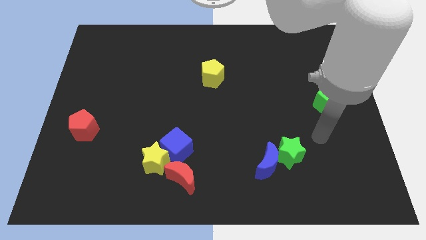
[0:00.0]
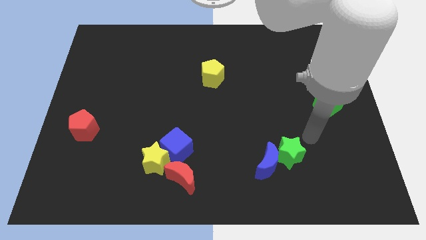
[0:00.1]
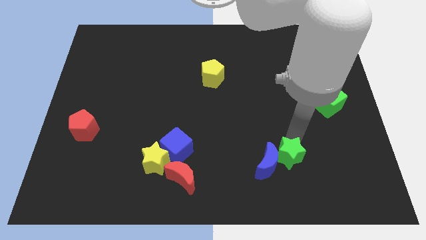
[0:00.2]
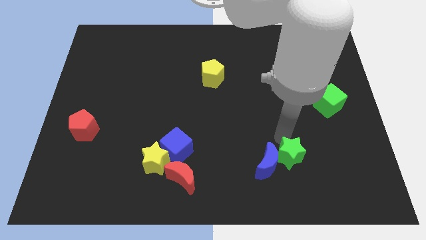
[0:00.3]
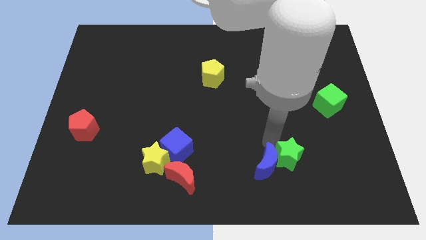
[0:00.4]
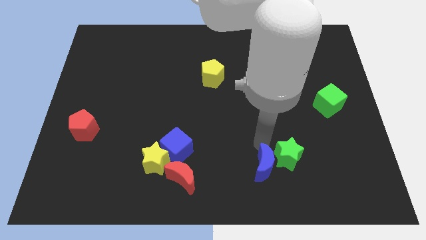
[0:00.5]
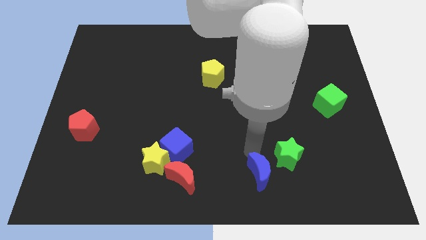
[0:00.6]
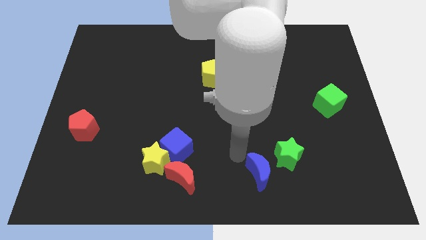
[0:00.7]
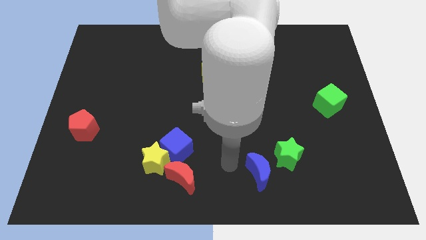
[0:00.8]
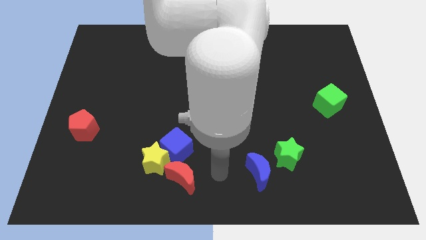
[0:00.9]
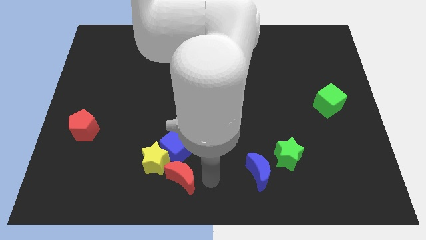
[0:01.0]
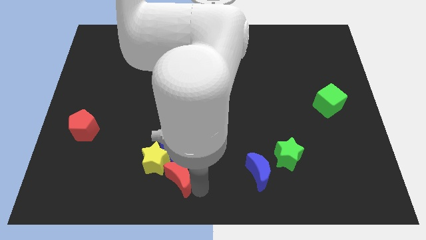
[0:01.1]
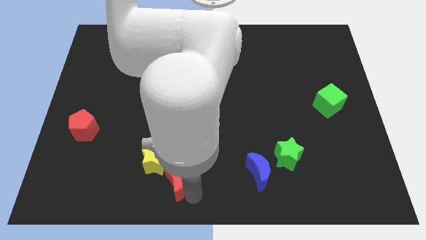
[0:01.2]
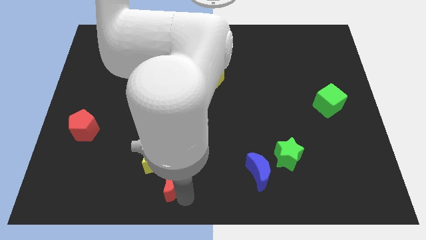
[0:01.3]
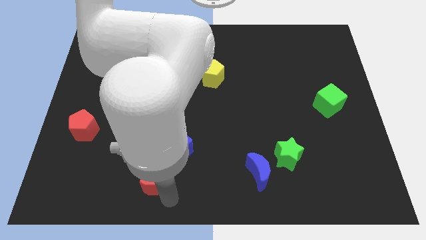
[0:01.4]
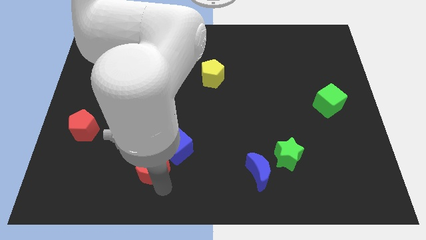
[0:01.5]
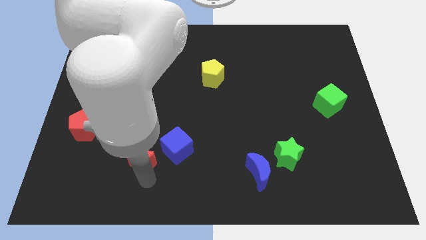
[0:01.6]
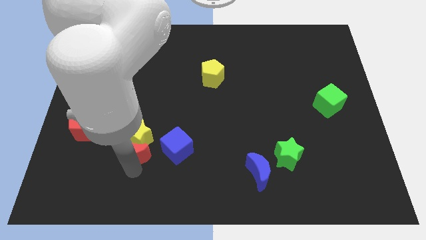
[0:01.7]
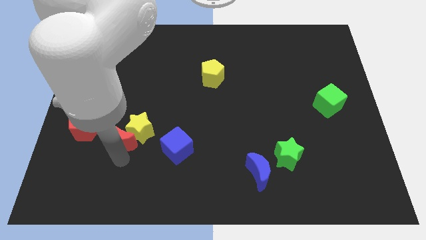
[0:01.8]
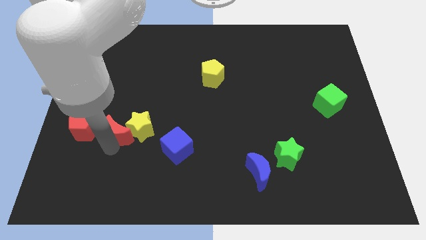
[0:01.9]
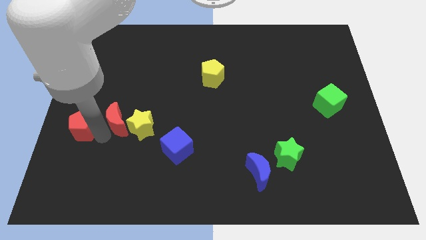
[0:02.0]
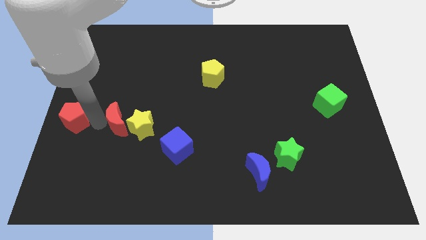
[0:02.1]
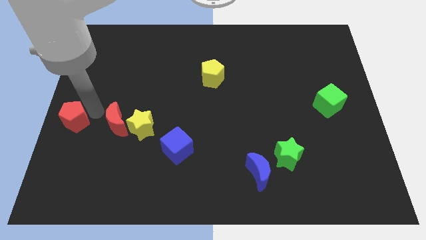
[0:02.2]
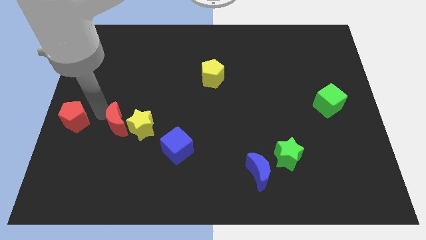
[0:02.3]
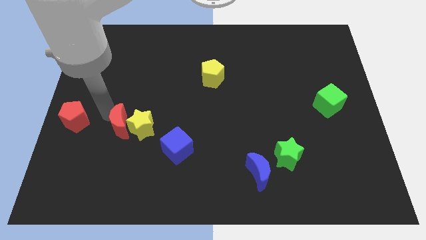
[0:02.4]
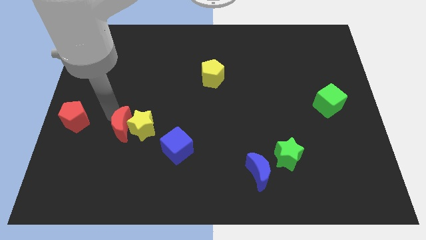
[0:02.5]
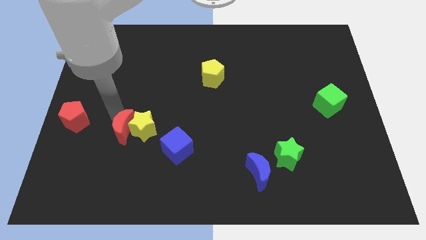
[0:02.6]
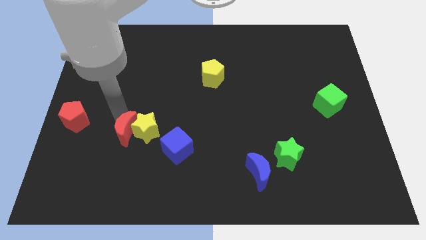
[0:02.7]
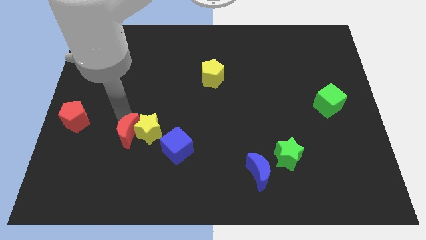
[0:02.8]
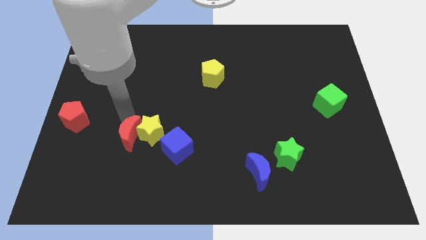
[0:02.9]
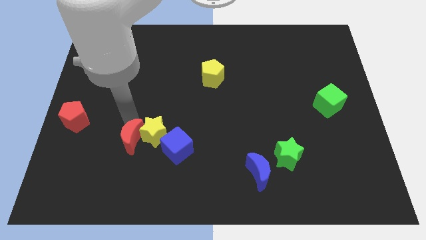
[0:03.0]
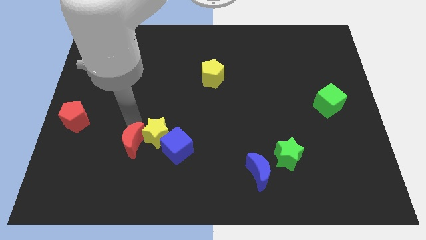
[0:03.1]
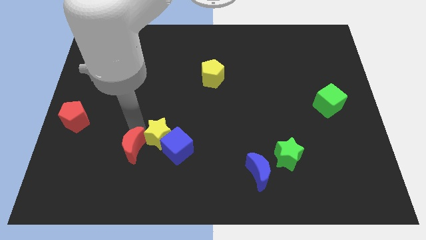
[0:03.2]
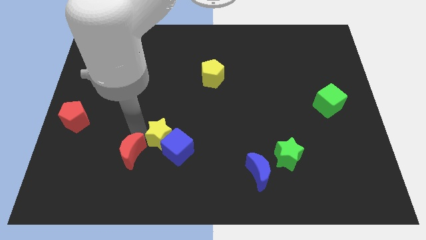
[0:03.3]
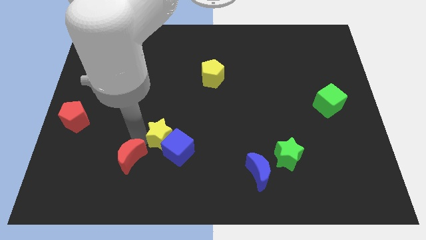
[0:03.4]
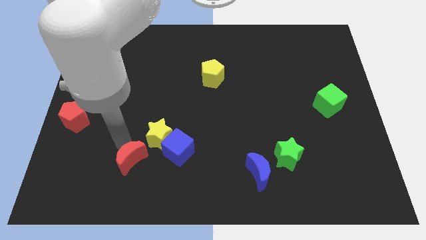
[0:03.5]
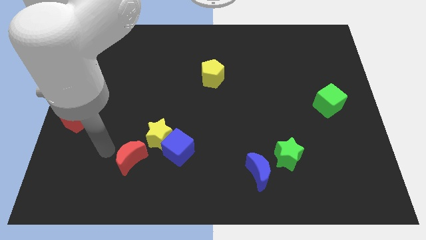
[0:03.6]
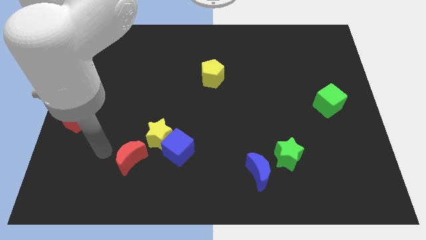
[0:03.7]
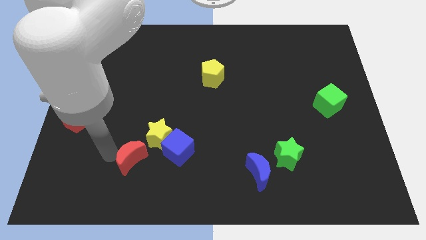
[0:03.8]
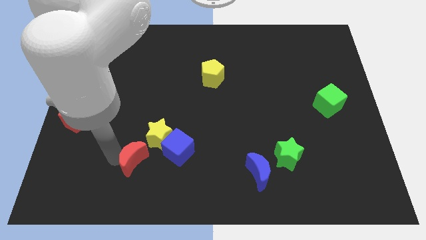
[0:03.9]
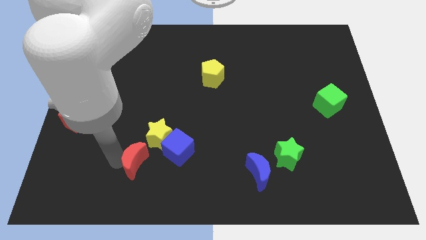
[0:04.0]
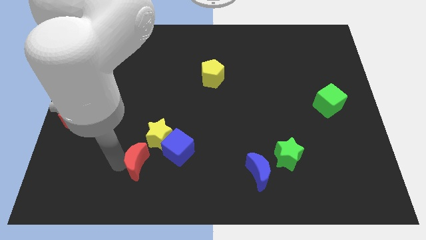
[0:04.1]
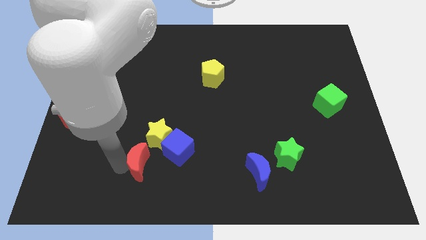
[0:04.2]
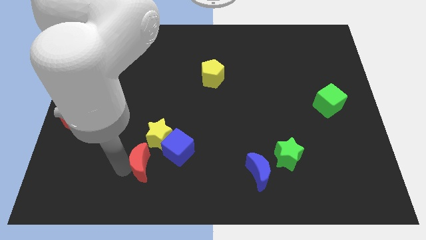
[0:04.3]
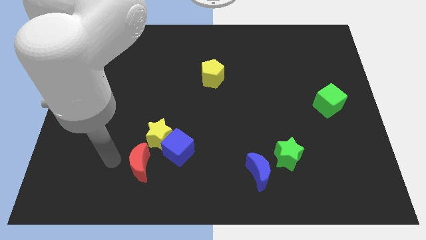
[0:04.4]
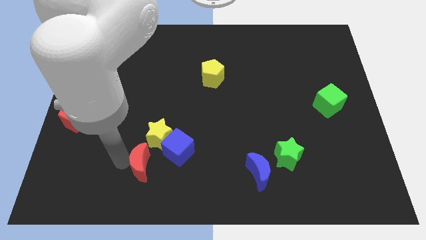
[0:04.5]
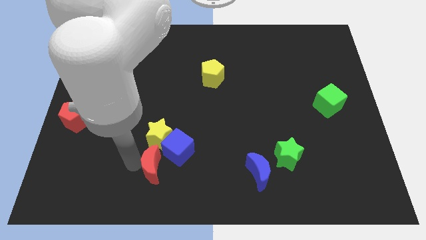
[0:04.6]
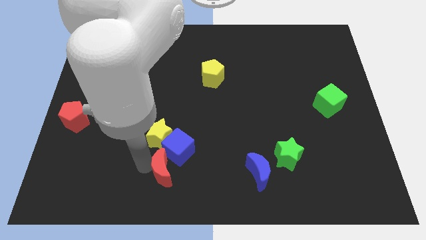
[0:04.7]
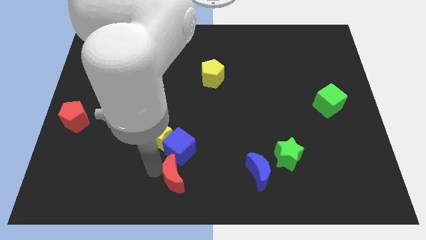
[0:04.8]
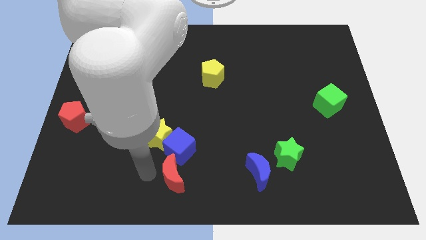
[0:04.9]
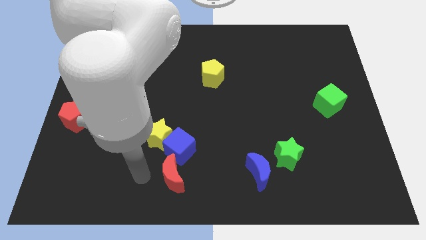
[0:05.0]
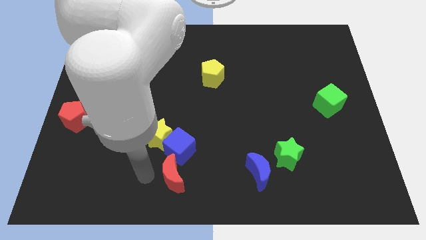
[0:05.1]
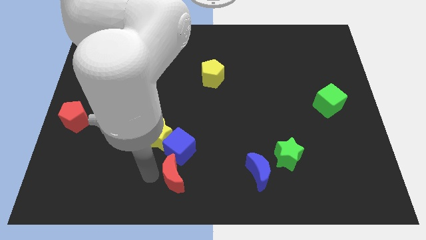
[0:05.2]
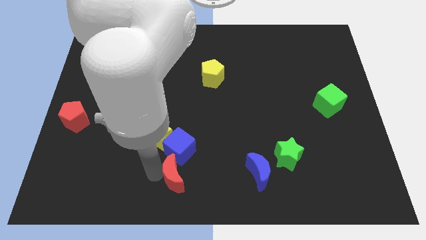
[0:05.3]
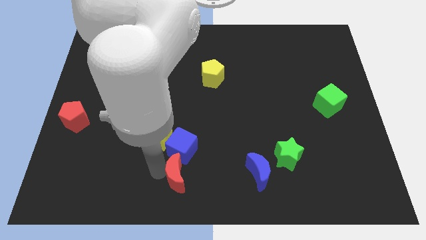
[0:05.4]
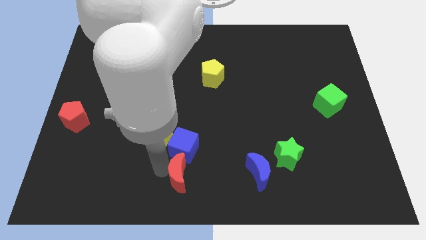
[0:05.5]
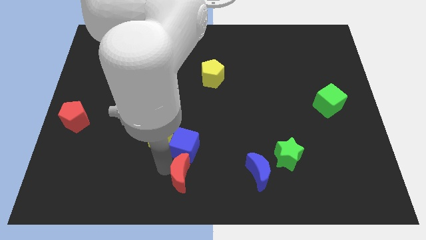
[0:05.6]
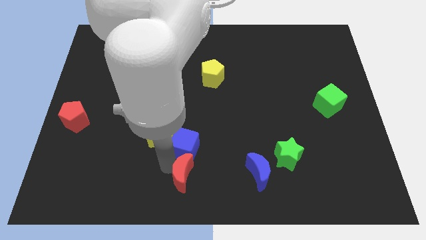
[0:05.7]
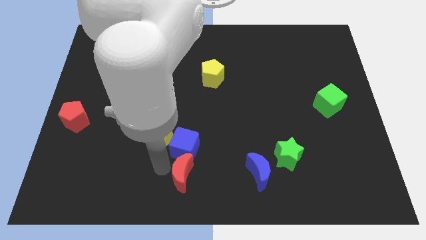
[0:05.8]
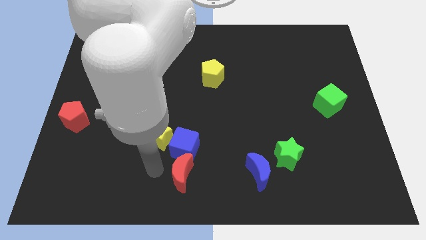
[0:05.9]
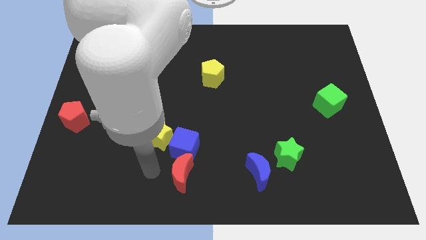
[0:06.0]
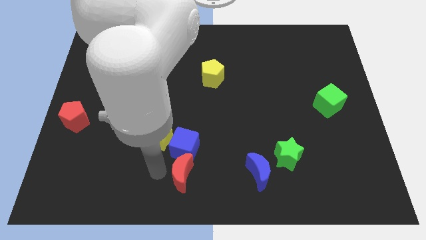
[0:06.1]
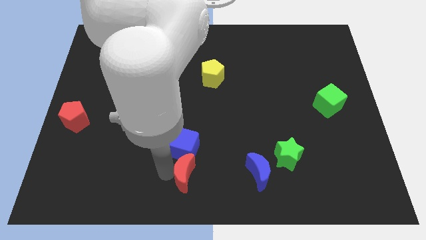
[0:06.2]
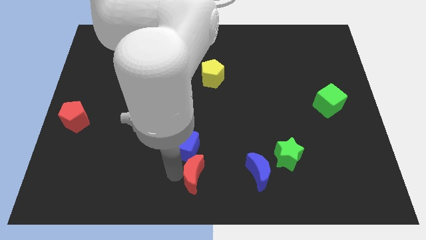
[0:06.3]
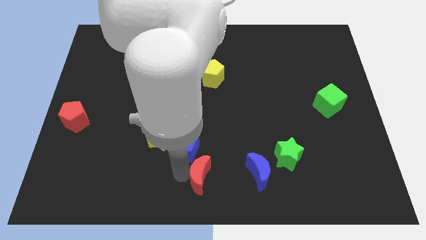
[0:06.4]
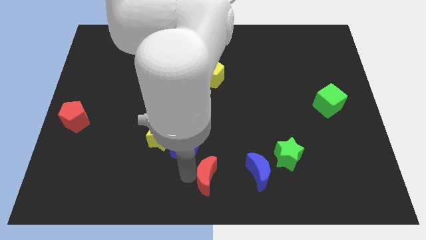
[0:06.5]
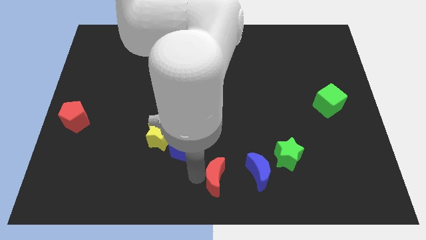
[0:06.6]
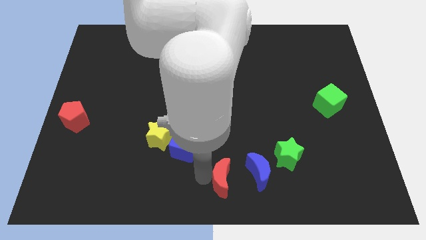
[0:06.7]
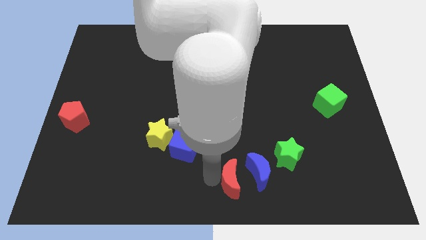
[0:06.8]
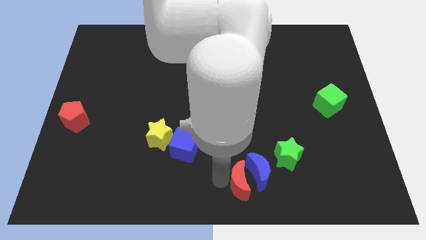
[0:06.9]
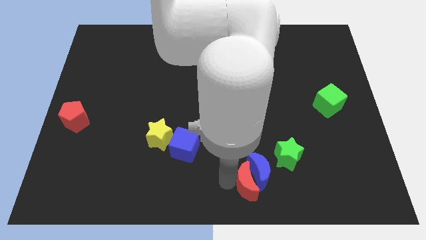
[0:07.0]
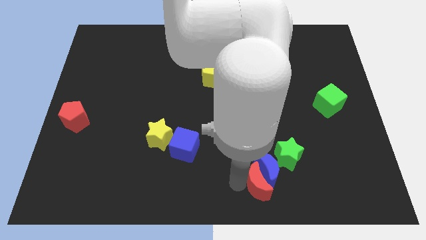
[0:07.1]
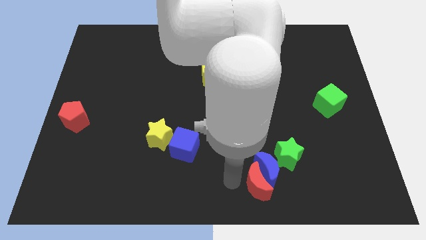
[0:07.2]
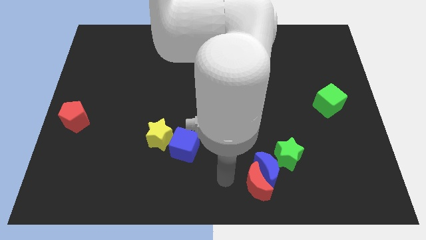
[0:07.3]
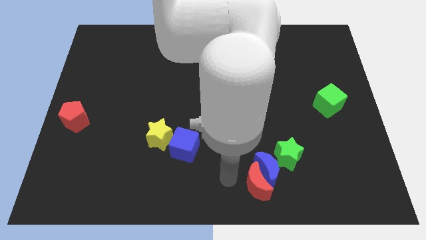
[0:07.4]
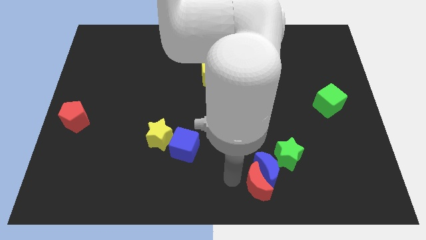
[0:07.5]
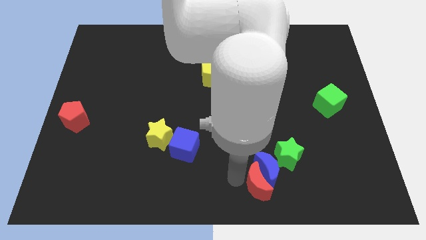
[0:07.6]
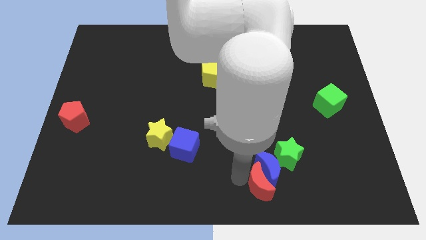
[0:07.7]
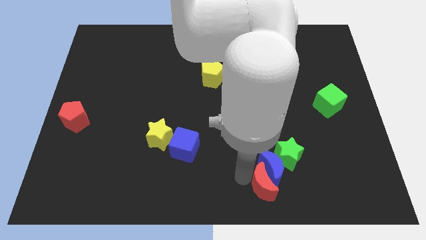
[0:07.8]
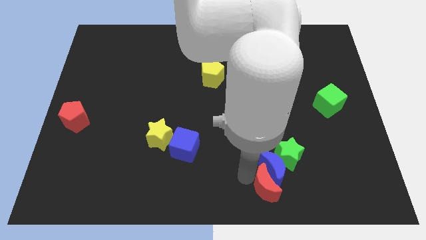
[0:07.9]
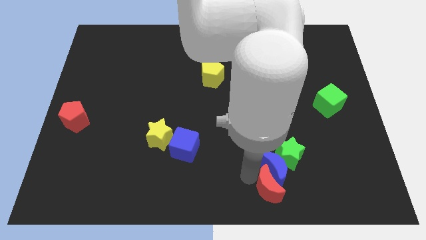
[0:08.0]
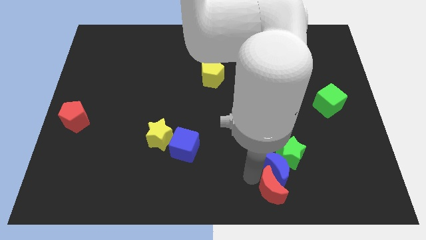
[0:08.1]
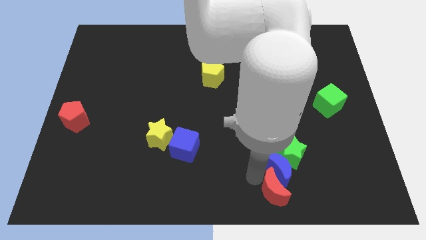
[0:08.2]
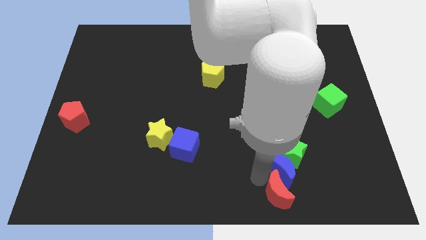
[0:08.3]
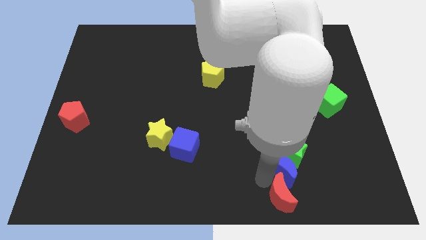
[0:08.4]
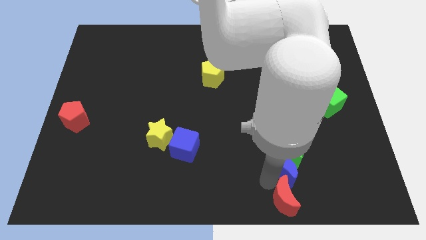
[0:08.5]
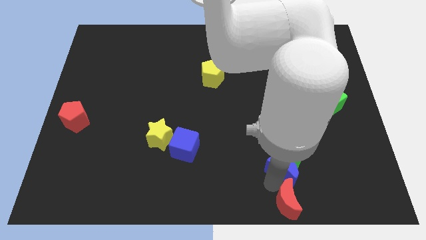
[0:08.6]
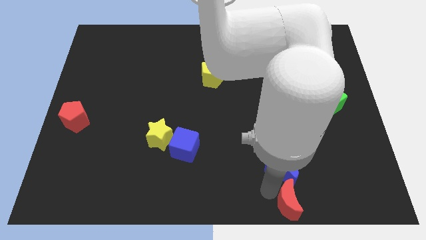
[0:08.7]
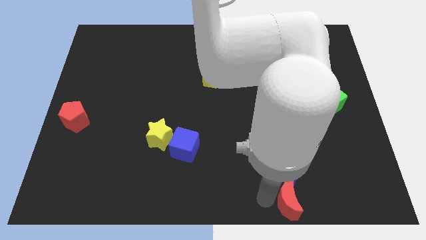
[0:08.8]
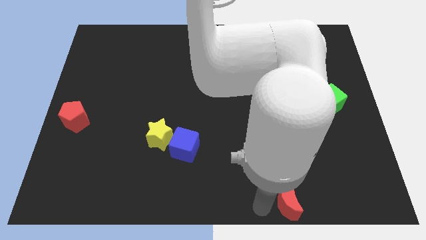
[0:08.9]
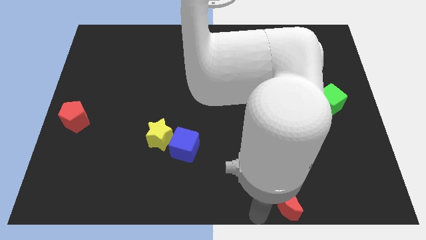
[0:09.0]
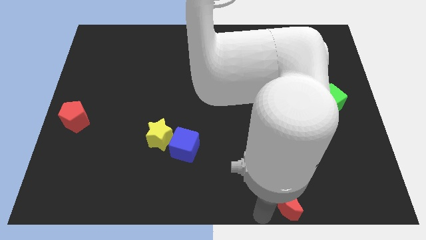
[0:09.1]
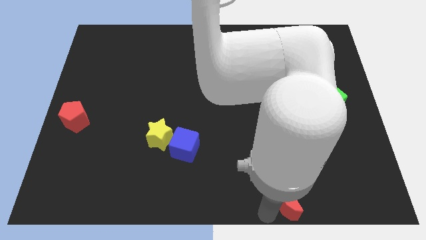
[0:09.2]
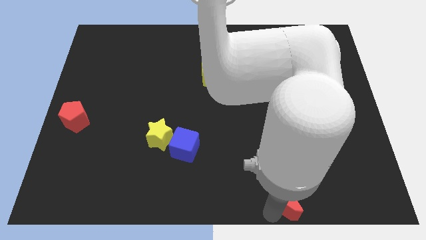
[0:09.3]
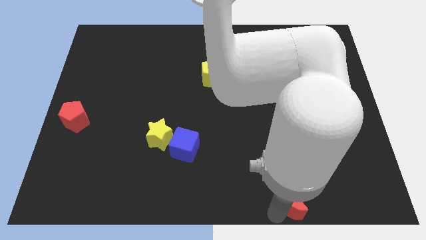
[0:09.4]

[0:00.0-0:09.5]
push the red moon right
